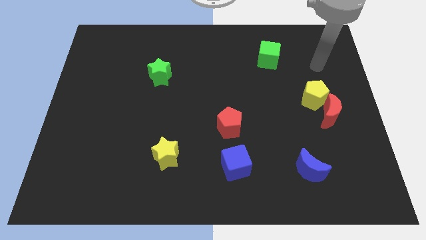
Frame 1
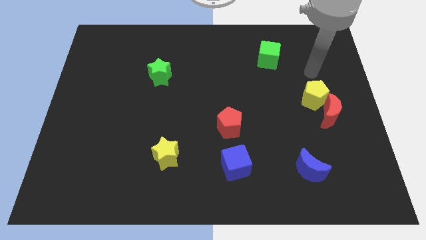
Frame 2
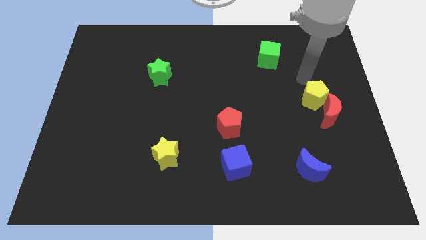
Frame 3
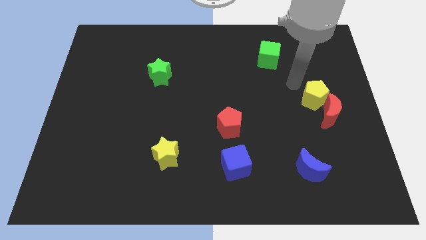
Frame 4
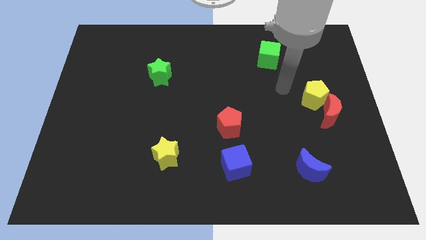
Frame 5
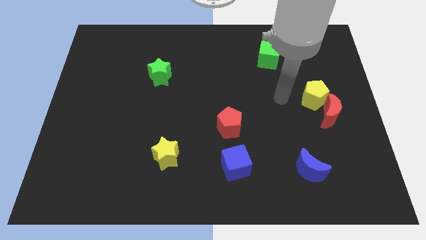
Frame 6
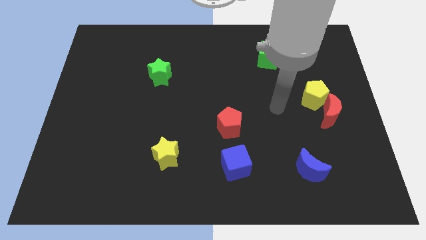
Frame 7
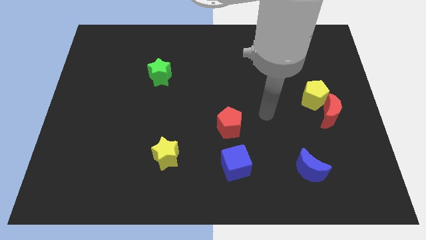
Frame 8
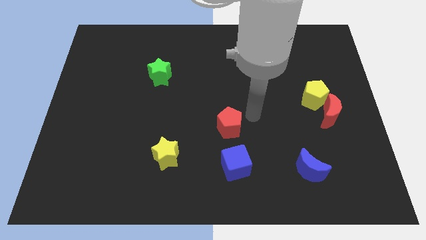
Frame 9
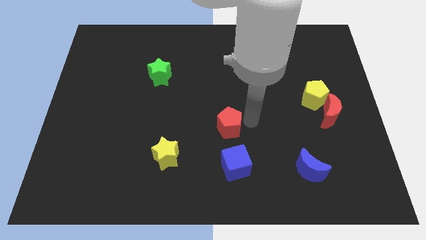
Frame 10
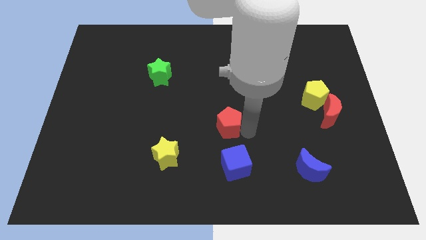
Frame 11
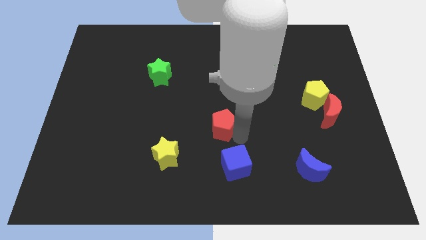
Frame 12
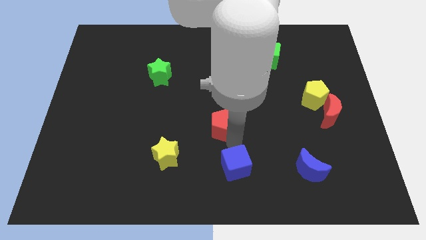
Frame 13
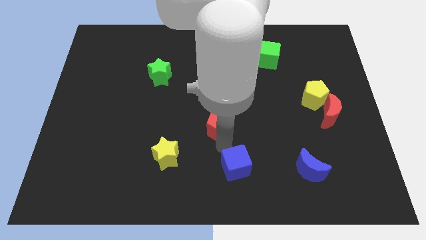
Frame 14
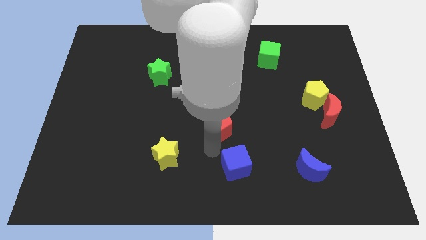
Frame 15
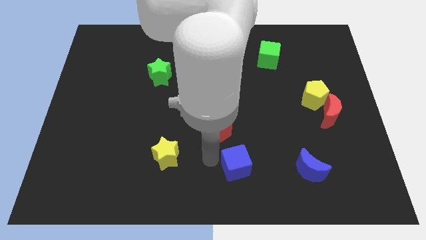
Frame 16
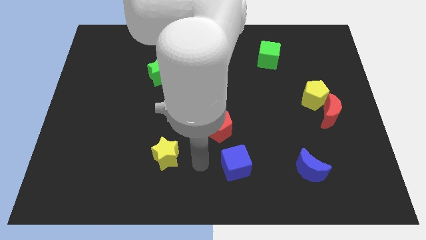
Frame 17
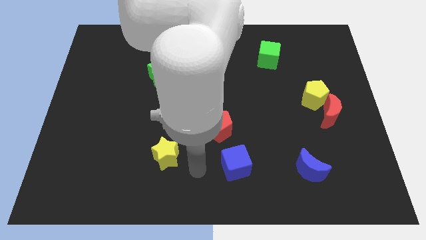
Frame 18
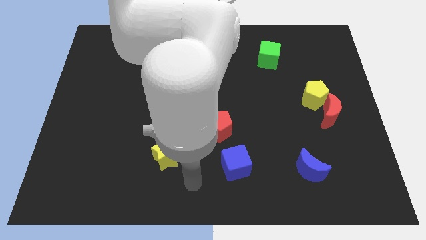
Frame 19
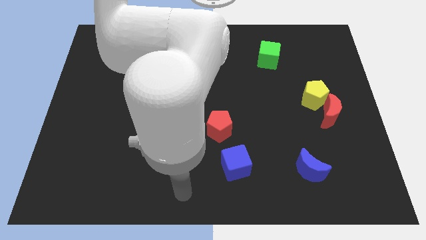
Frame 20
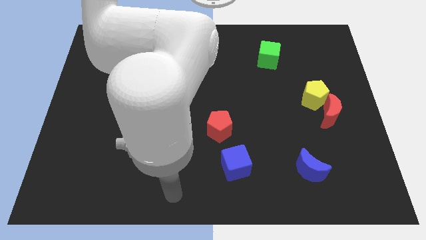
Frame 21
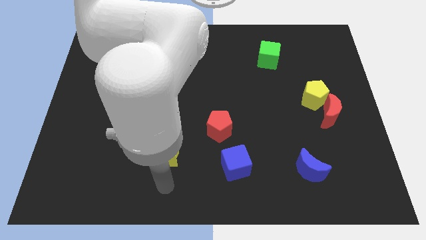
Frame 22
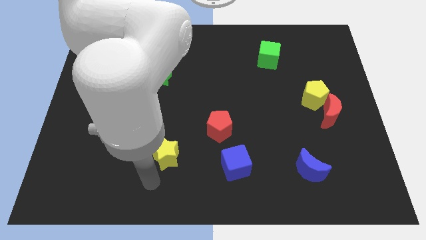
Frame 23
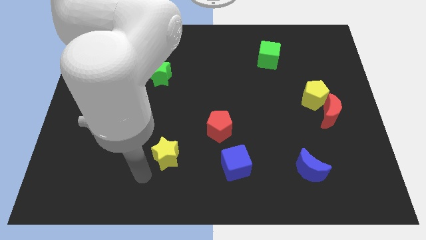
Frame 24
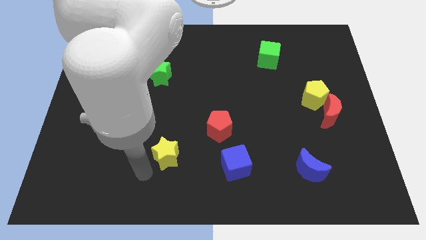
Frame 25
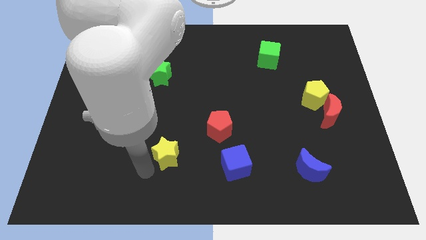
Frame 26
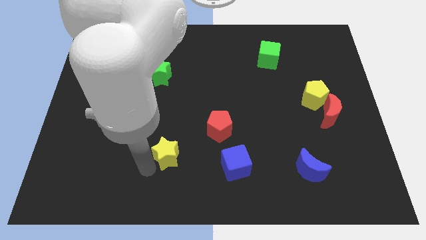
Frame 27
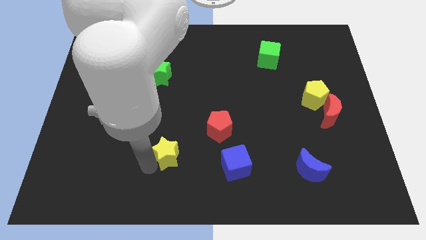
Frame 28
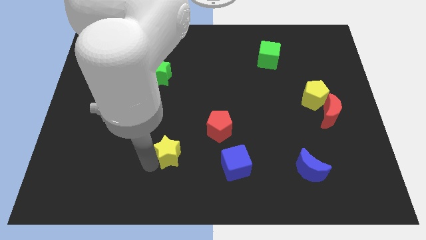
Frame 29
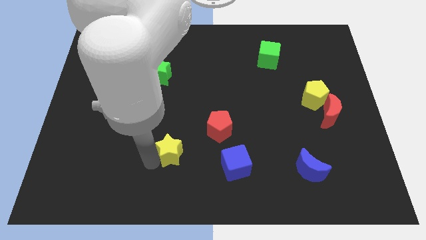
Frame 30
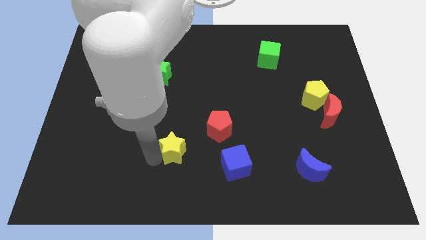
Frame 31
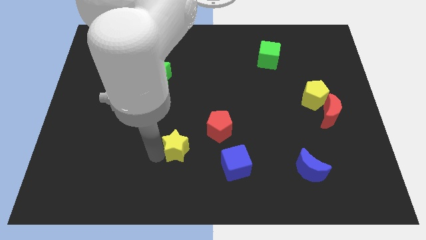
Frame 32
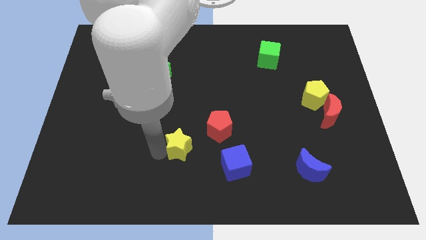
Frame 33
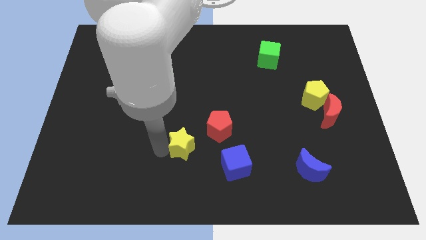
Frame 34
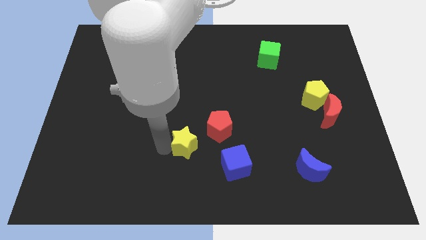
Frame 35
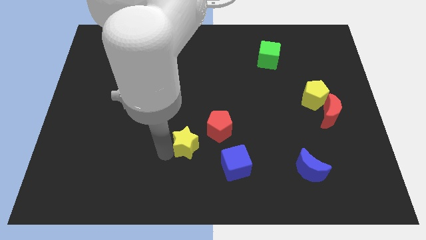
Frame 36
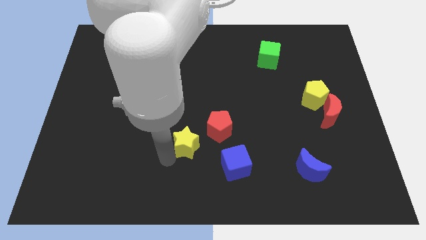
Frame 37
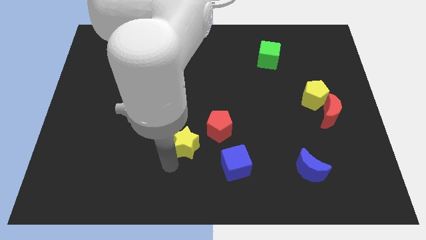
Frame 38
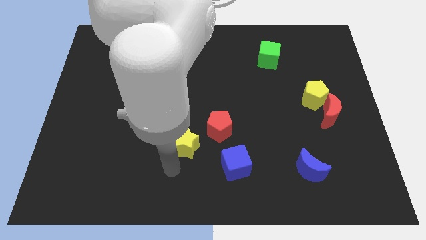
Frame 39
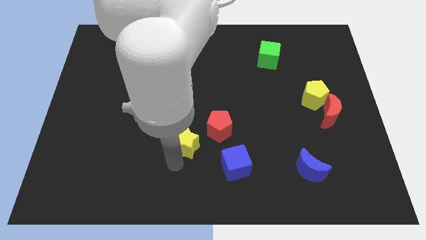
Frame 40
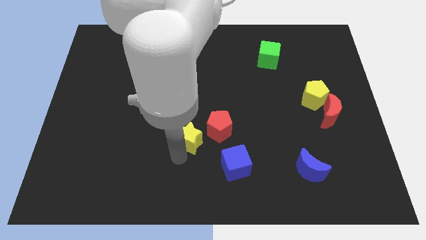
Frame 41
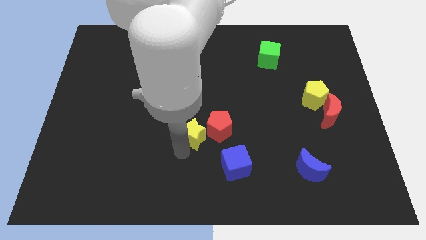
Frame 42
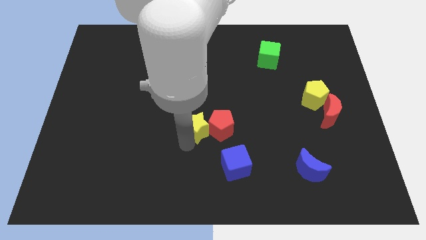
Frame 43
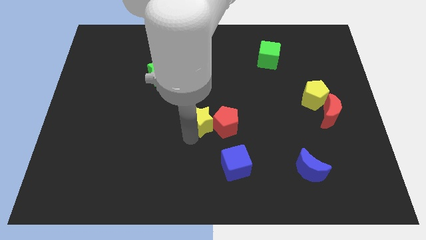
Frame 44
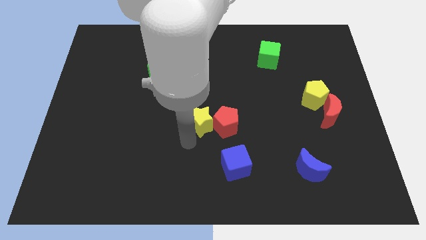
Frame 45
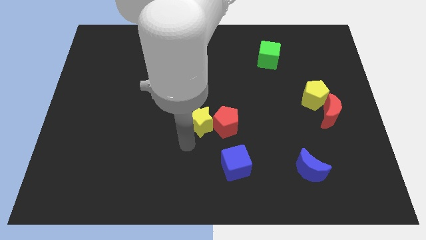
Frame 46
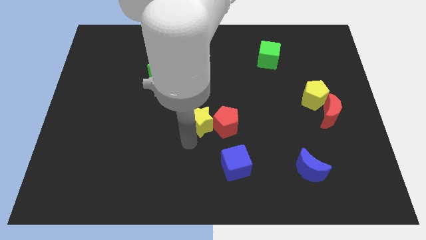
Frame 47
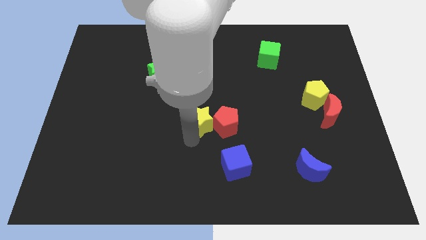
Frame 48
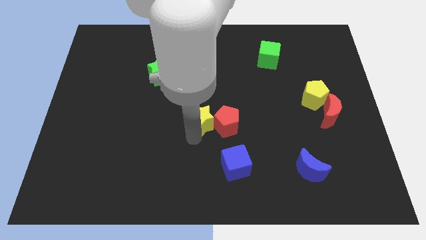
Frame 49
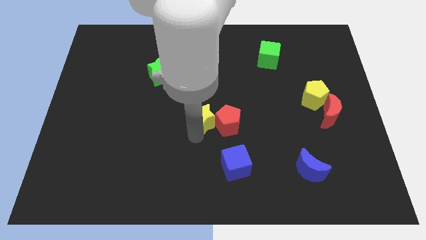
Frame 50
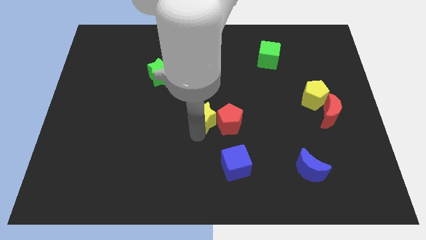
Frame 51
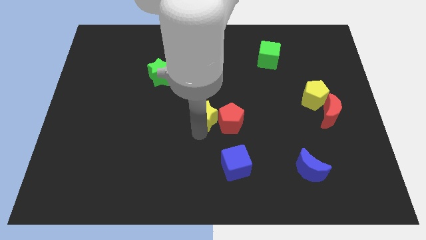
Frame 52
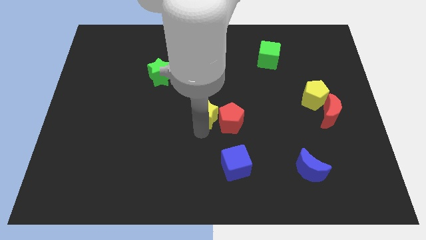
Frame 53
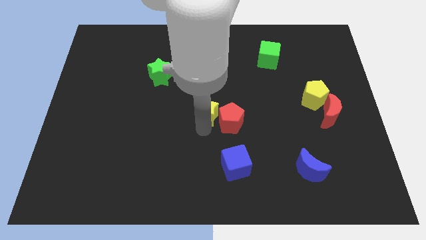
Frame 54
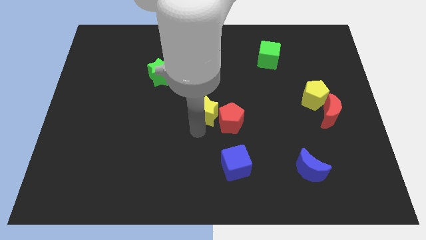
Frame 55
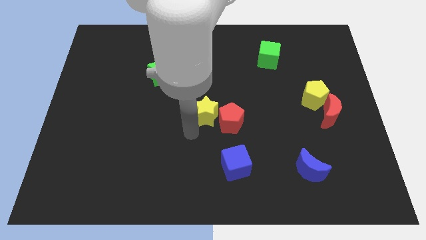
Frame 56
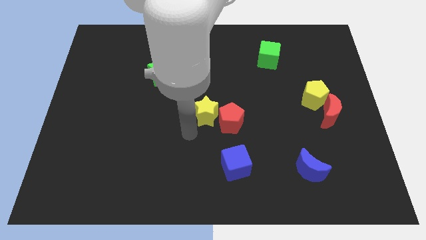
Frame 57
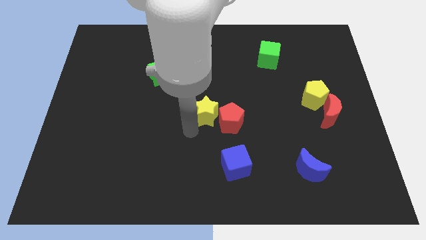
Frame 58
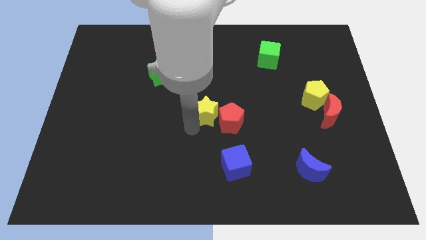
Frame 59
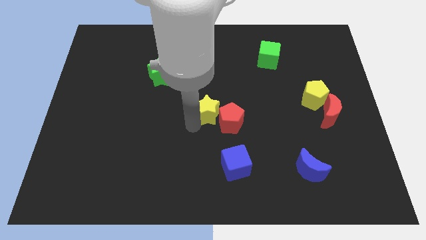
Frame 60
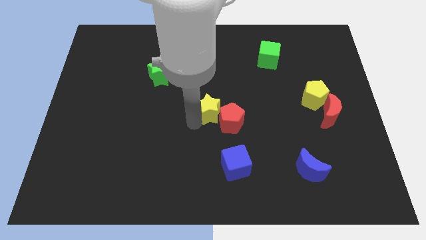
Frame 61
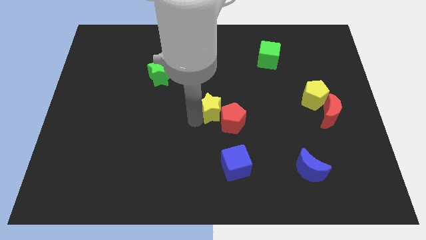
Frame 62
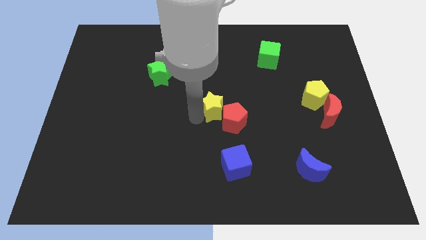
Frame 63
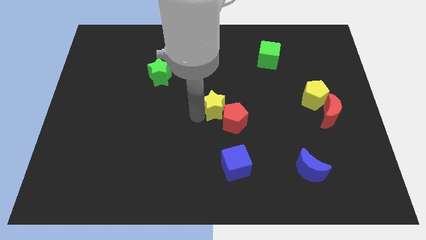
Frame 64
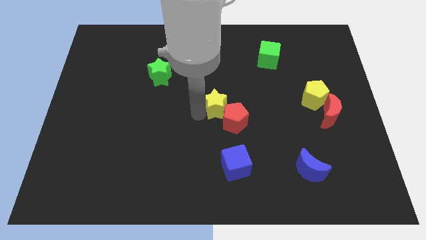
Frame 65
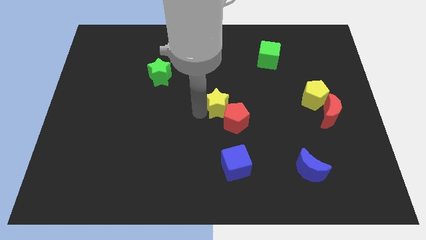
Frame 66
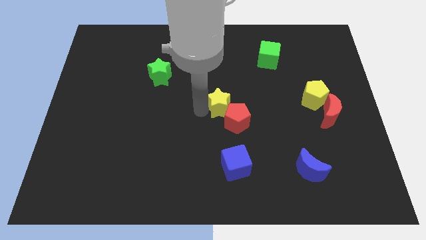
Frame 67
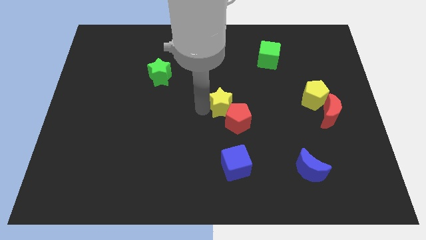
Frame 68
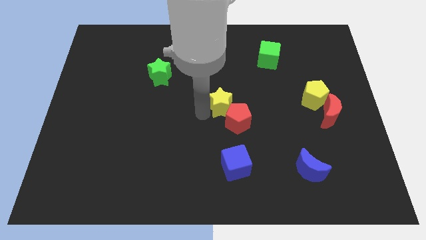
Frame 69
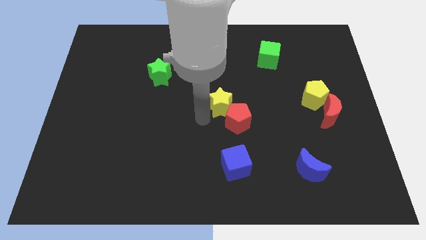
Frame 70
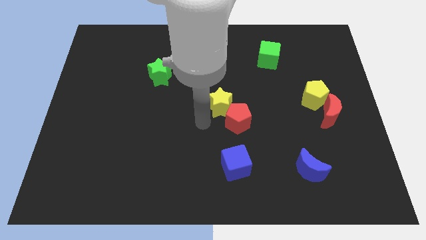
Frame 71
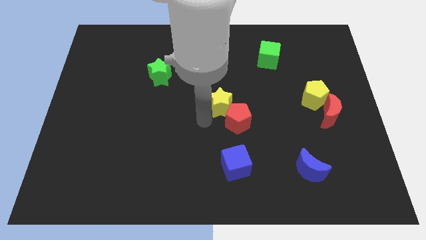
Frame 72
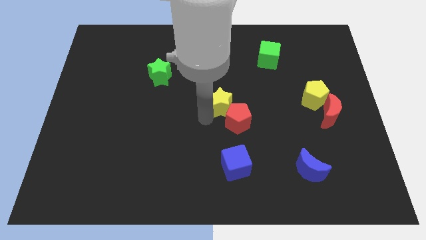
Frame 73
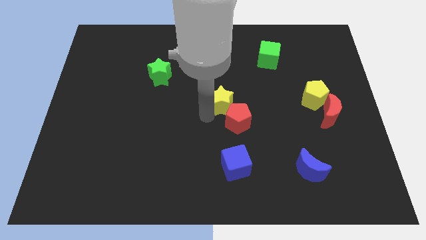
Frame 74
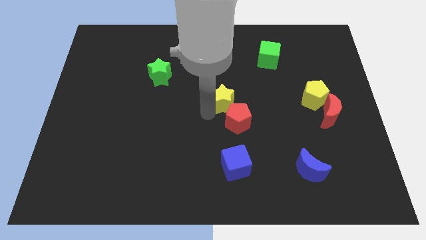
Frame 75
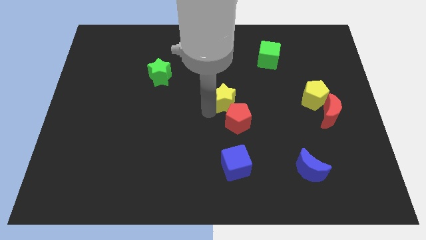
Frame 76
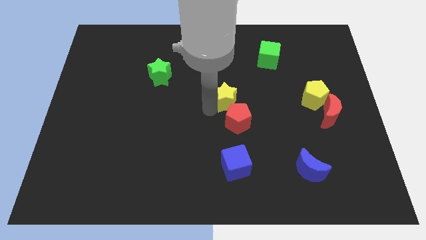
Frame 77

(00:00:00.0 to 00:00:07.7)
push the yellow star up and then to the right

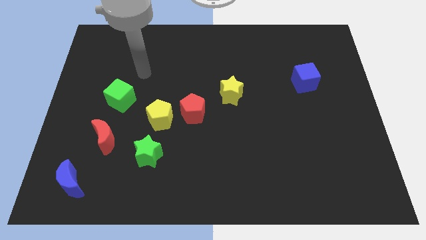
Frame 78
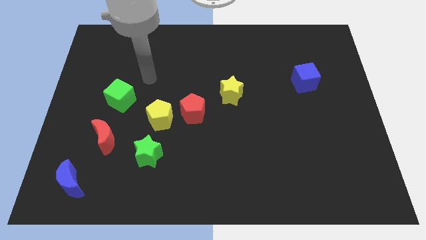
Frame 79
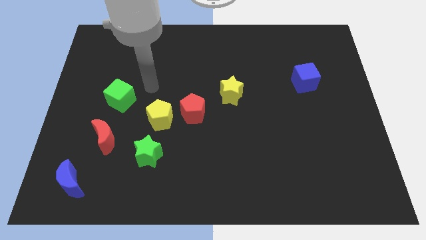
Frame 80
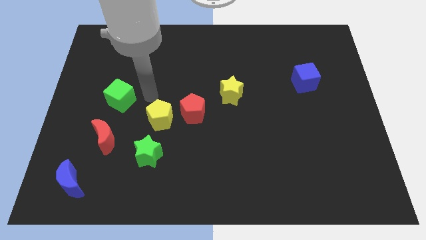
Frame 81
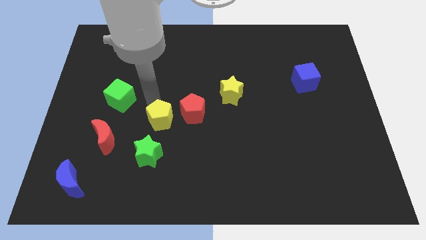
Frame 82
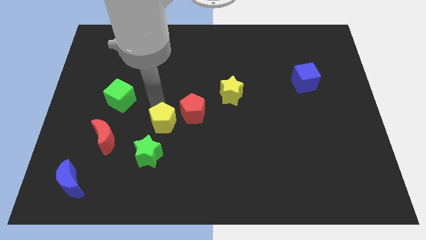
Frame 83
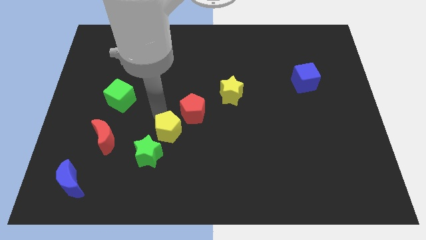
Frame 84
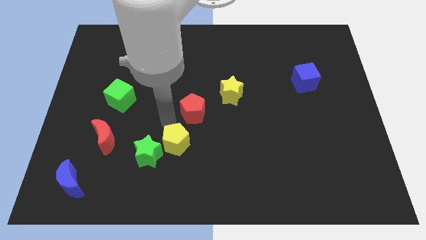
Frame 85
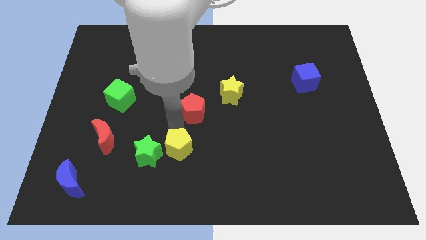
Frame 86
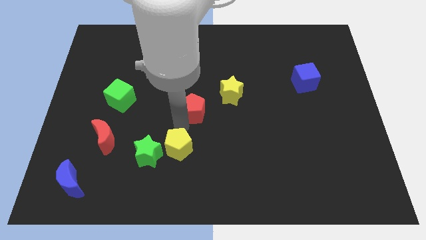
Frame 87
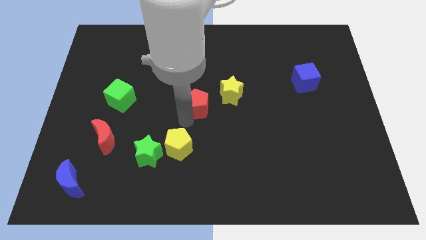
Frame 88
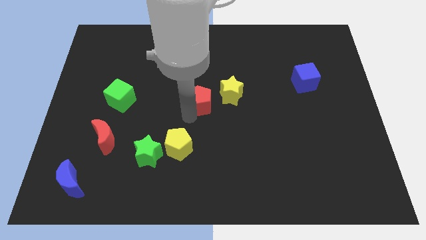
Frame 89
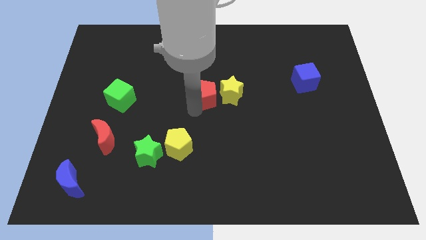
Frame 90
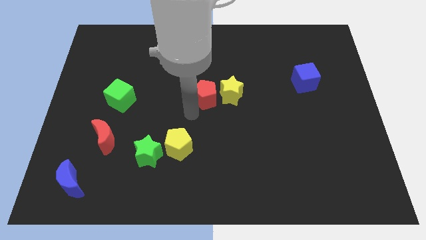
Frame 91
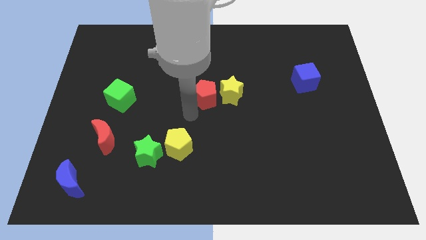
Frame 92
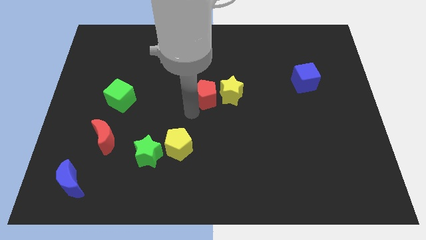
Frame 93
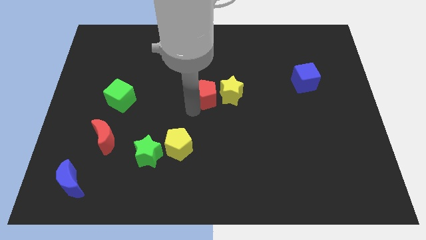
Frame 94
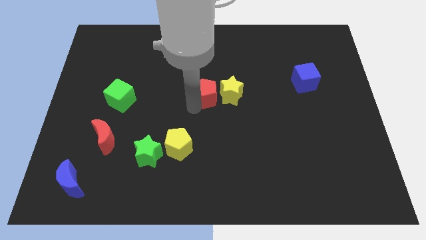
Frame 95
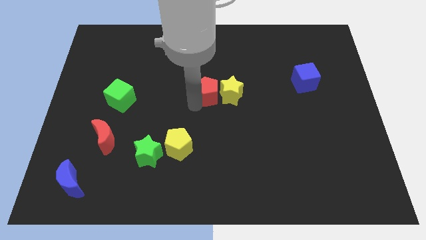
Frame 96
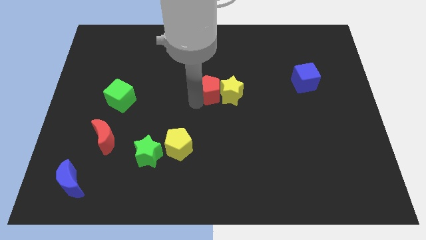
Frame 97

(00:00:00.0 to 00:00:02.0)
push the red pentagon a bit diagonally upwards and to the right
